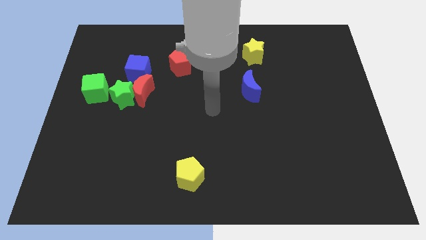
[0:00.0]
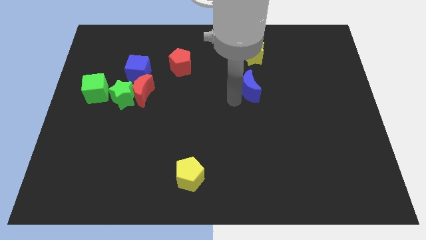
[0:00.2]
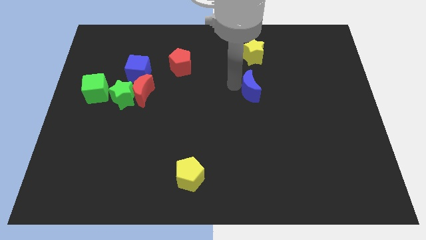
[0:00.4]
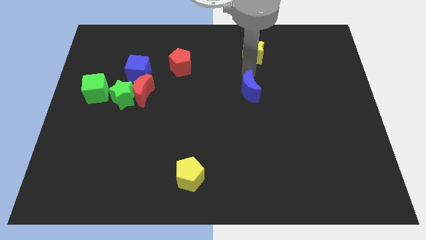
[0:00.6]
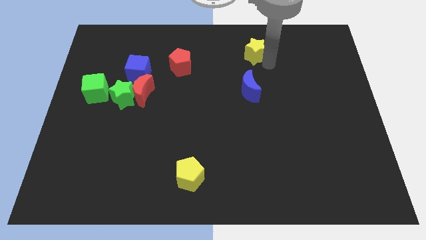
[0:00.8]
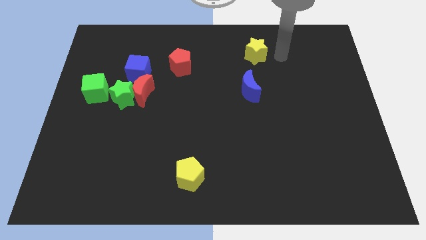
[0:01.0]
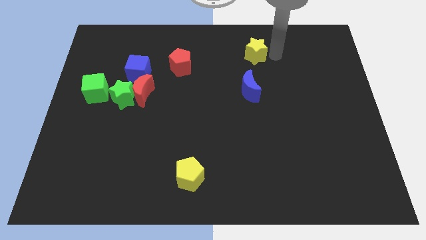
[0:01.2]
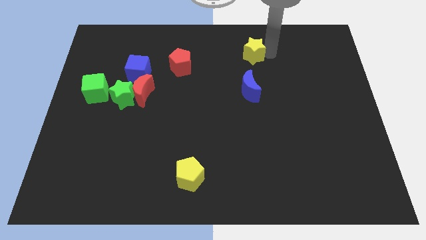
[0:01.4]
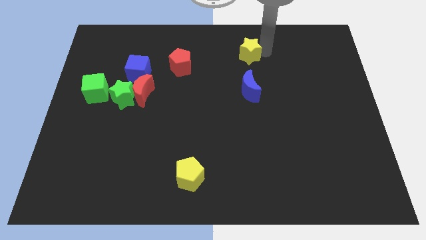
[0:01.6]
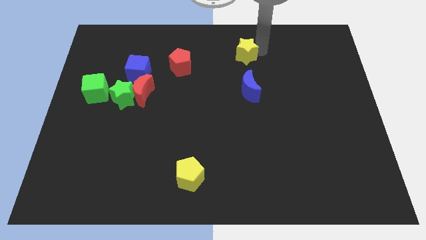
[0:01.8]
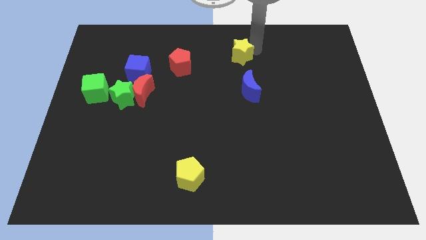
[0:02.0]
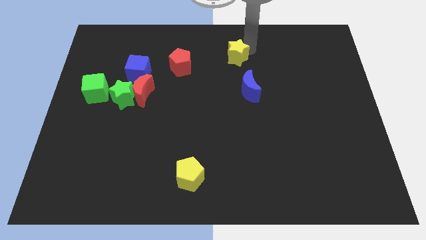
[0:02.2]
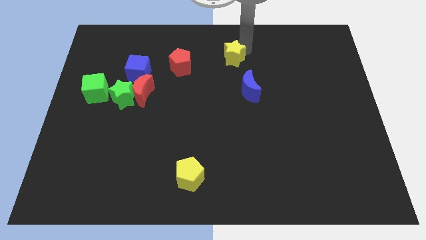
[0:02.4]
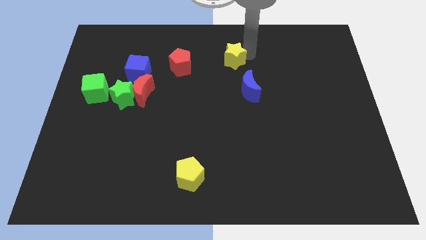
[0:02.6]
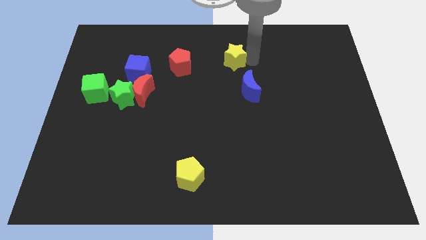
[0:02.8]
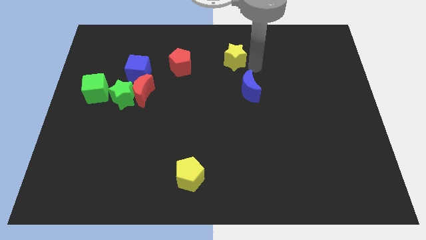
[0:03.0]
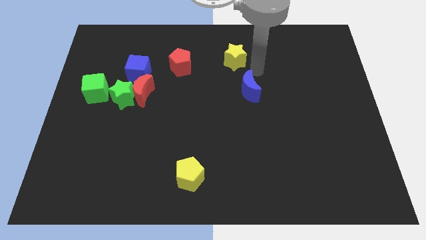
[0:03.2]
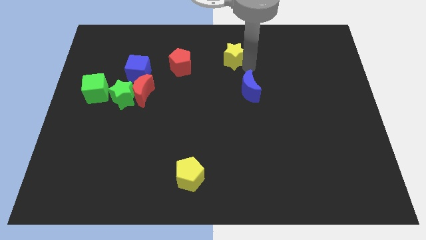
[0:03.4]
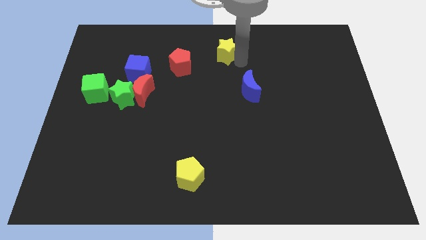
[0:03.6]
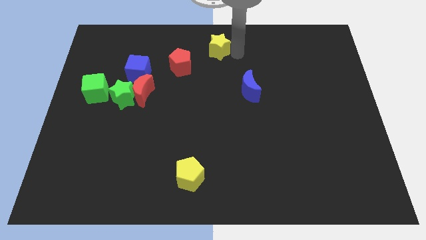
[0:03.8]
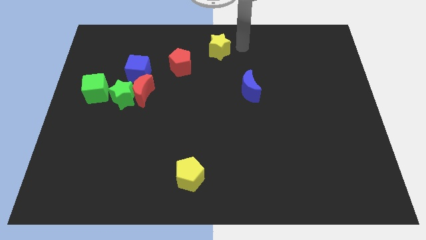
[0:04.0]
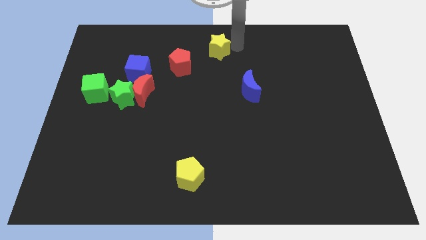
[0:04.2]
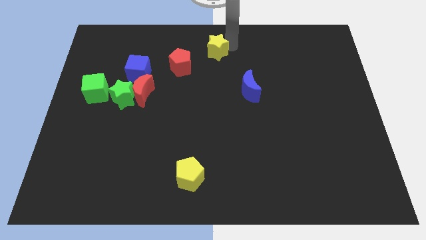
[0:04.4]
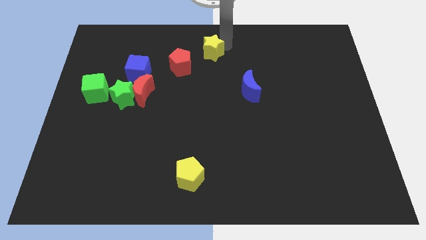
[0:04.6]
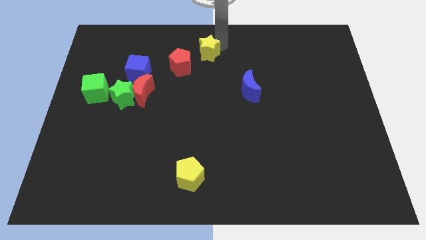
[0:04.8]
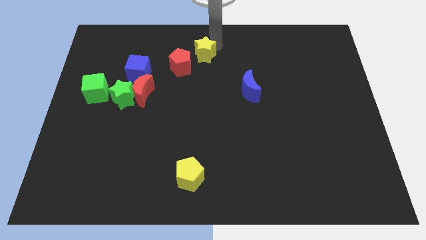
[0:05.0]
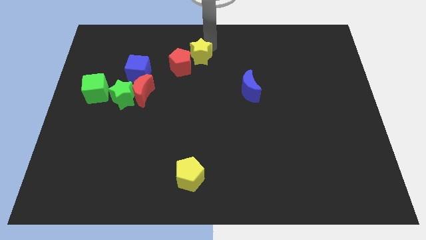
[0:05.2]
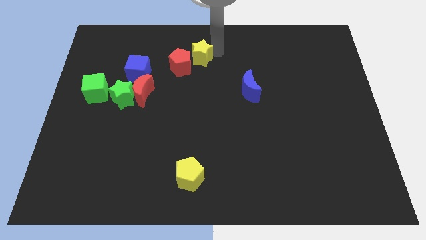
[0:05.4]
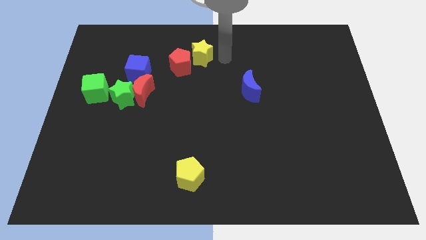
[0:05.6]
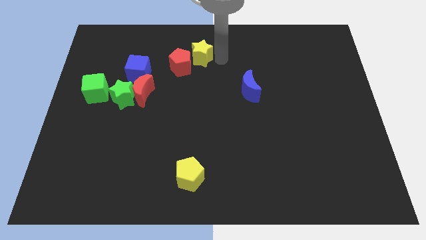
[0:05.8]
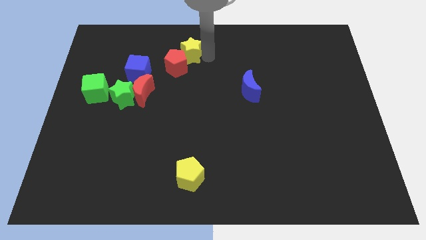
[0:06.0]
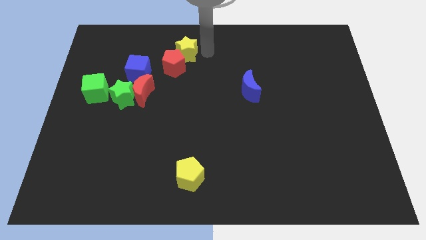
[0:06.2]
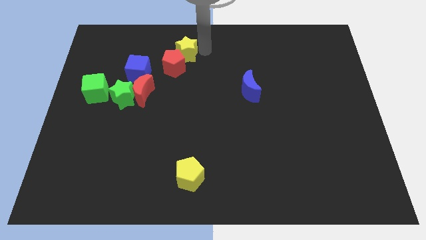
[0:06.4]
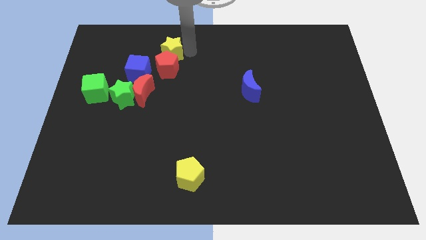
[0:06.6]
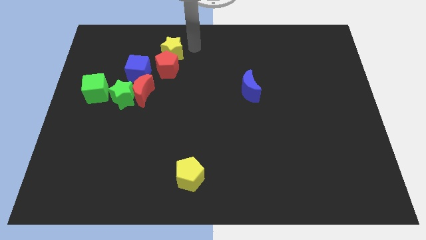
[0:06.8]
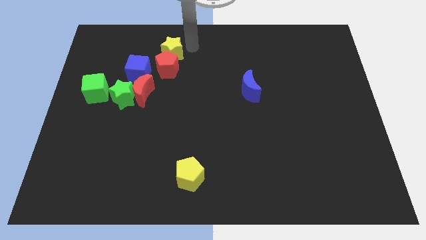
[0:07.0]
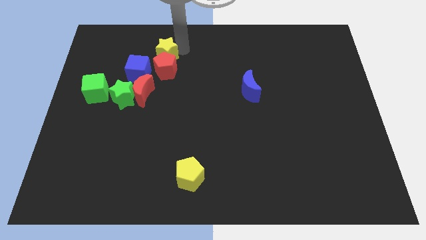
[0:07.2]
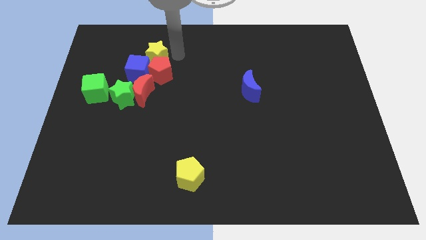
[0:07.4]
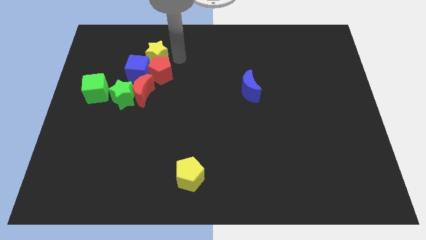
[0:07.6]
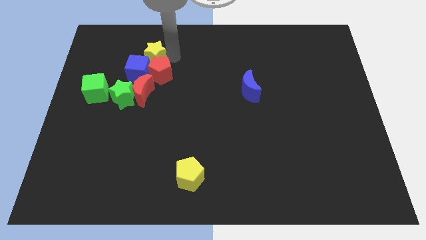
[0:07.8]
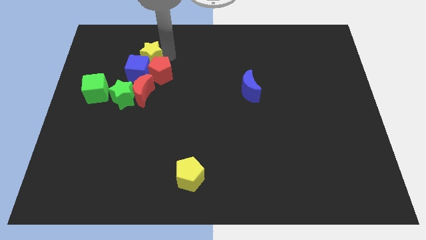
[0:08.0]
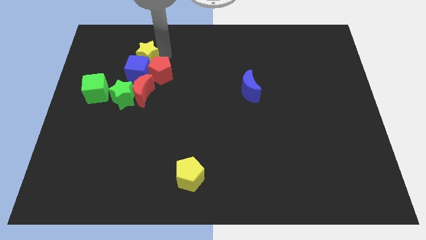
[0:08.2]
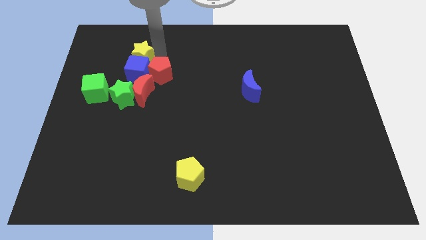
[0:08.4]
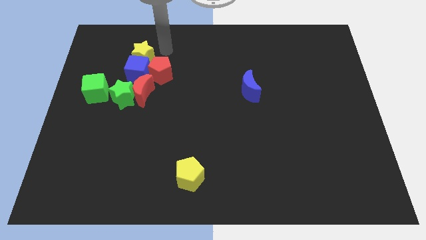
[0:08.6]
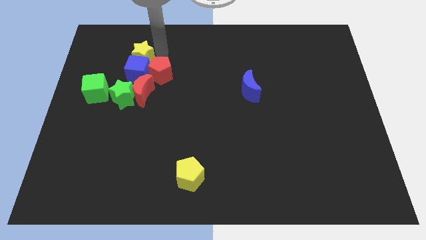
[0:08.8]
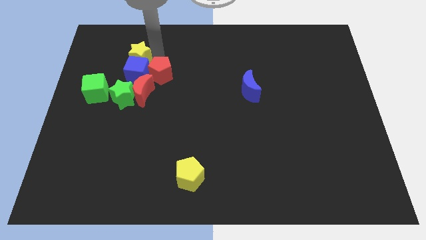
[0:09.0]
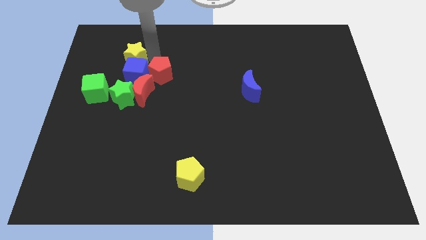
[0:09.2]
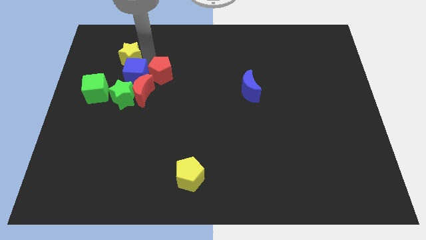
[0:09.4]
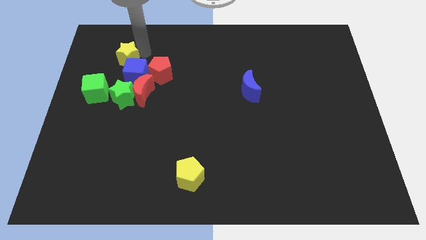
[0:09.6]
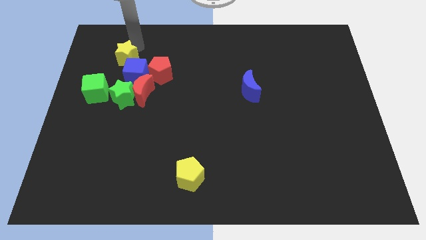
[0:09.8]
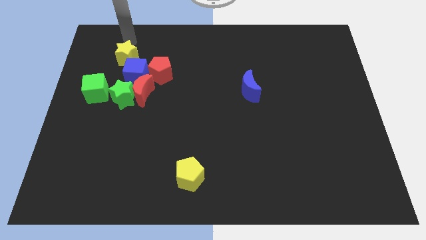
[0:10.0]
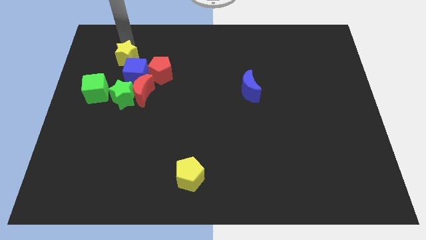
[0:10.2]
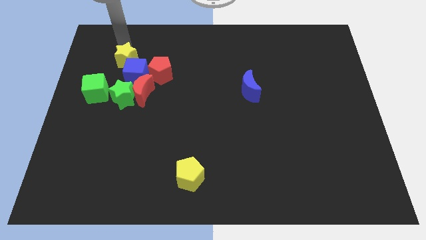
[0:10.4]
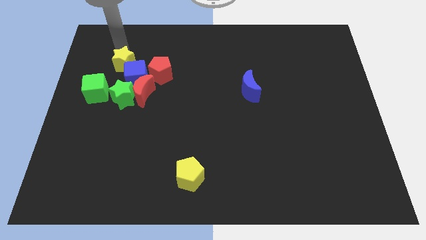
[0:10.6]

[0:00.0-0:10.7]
push the yellow star to the top left of the red moon

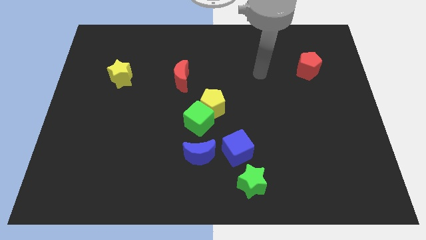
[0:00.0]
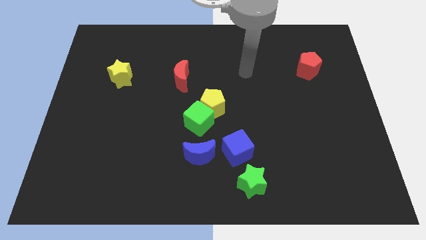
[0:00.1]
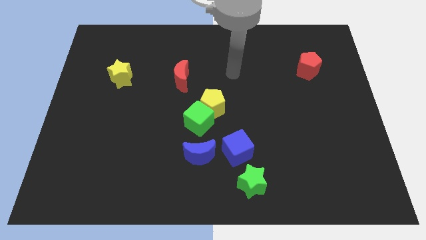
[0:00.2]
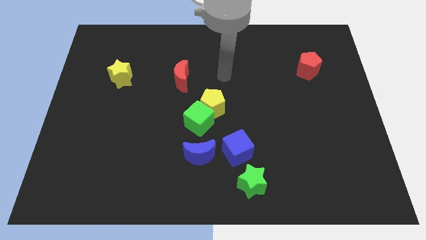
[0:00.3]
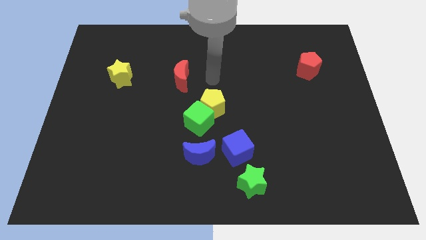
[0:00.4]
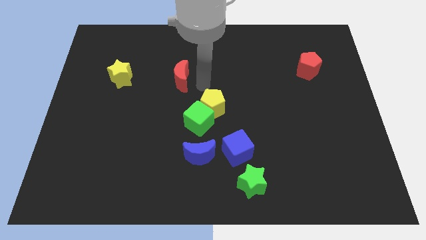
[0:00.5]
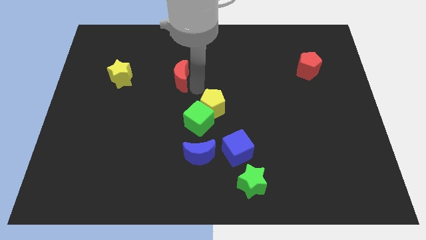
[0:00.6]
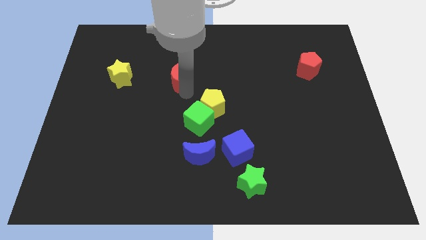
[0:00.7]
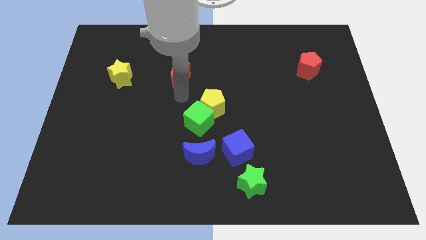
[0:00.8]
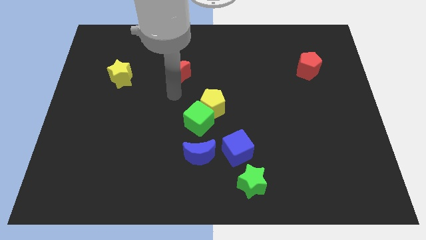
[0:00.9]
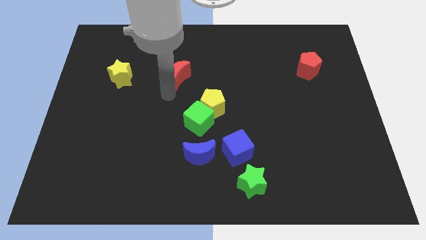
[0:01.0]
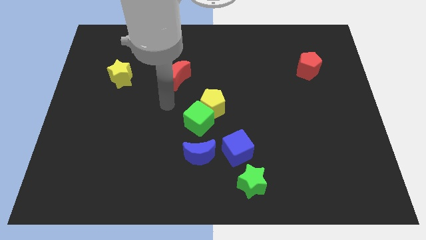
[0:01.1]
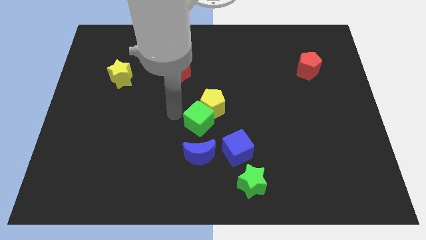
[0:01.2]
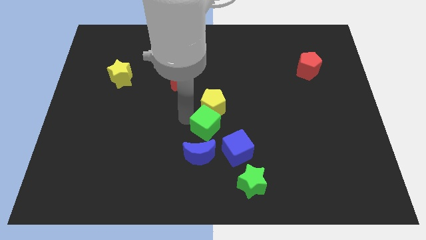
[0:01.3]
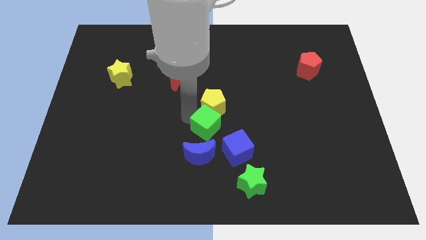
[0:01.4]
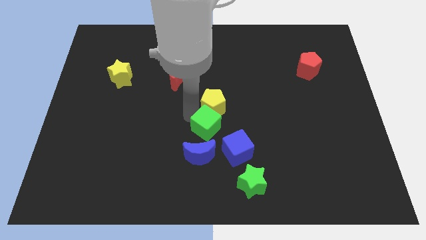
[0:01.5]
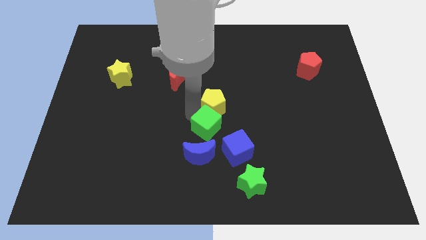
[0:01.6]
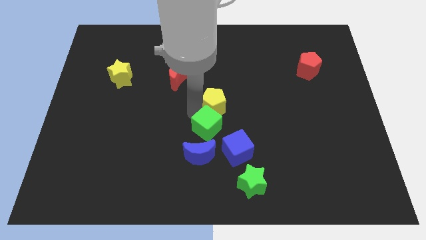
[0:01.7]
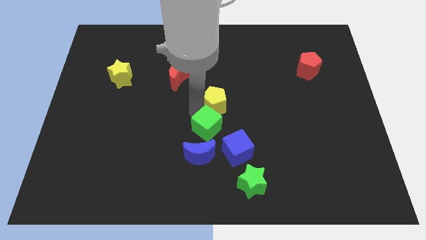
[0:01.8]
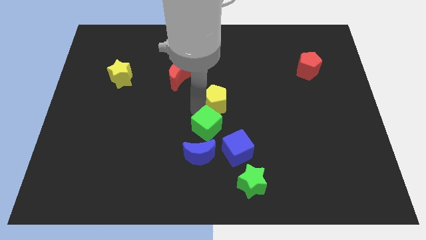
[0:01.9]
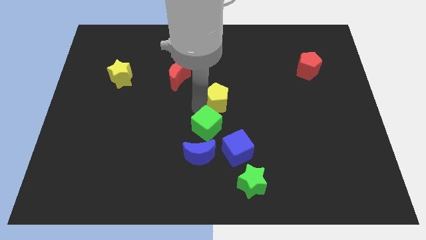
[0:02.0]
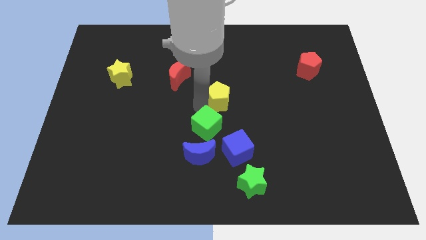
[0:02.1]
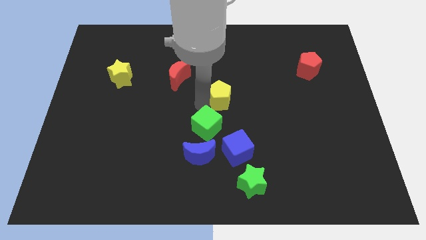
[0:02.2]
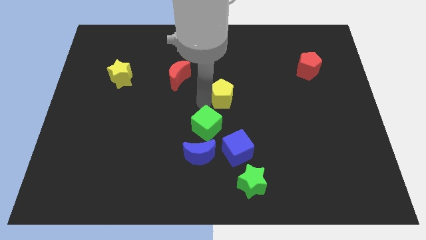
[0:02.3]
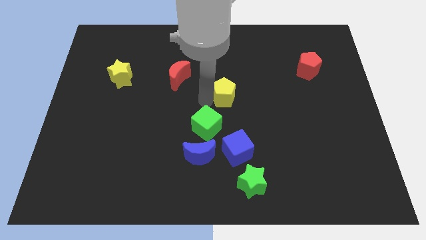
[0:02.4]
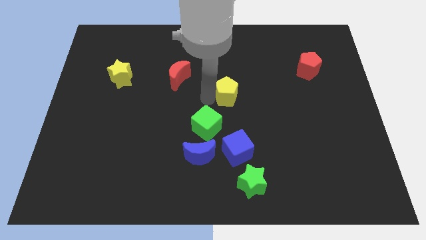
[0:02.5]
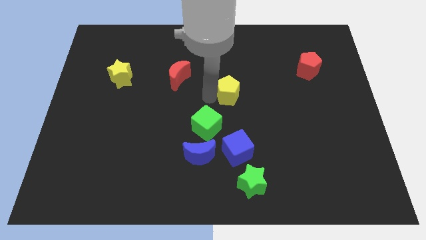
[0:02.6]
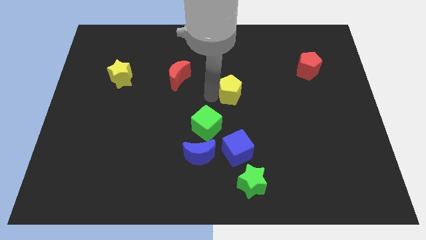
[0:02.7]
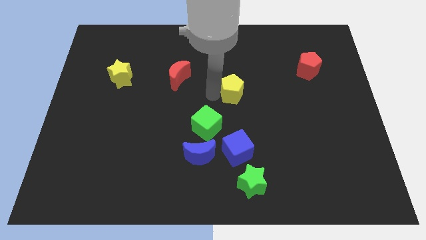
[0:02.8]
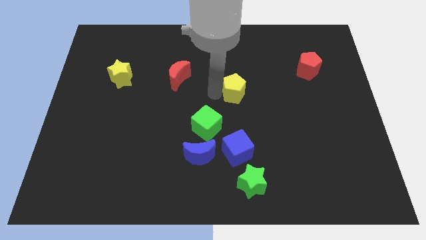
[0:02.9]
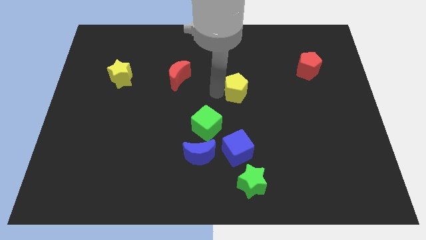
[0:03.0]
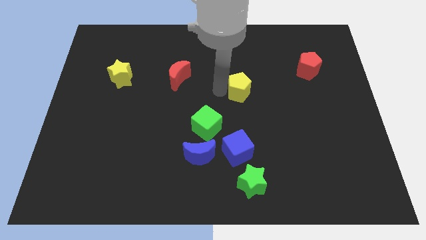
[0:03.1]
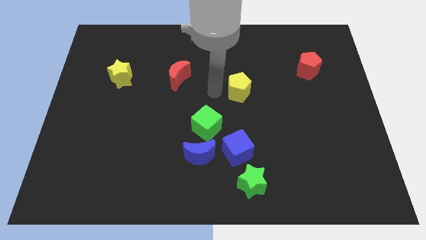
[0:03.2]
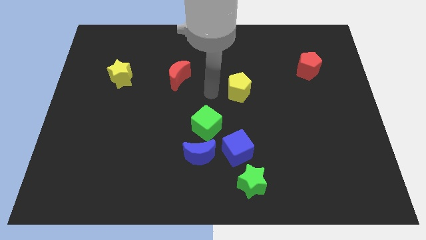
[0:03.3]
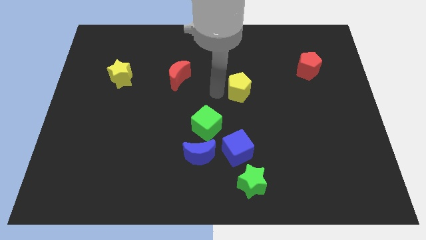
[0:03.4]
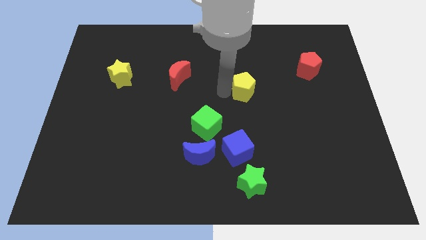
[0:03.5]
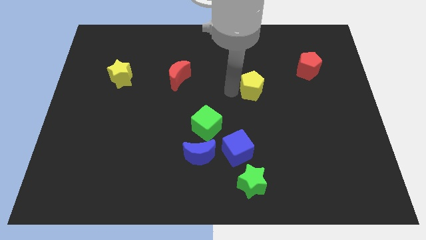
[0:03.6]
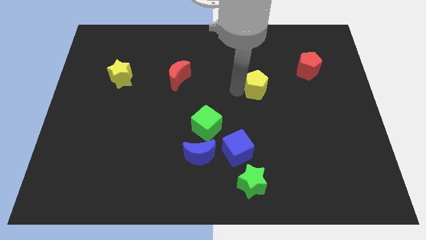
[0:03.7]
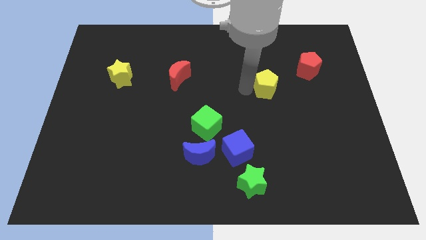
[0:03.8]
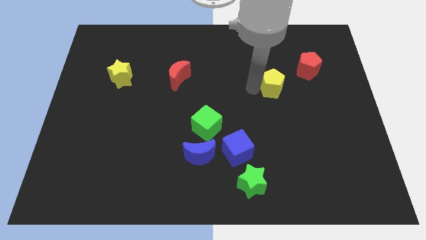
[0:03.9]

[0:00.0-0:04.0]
push the yellow pentagon diagonally down and to the left of the red pentagon
